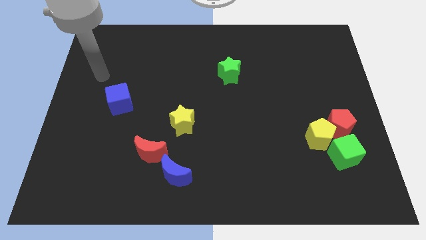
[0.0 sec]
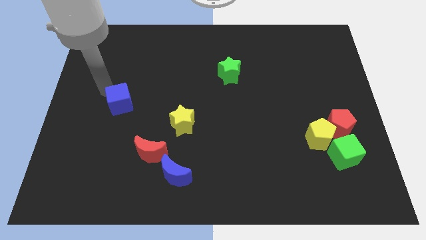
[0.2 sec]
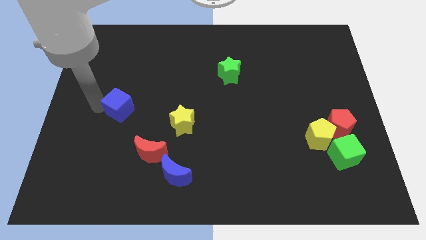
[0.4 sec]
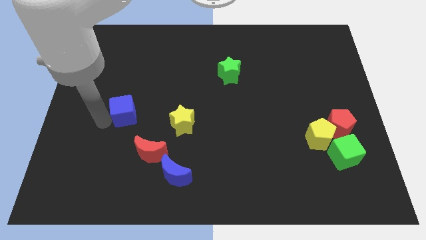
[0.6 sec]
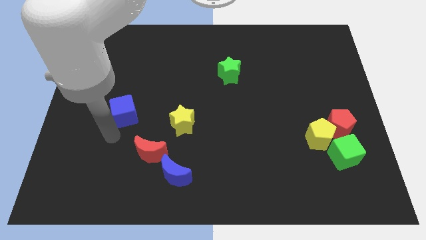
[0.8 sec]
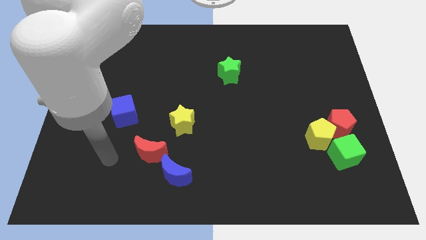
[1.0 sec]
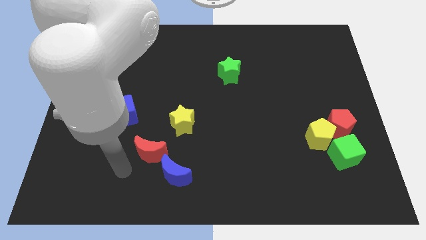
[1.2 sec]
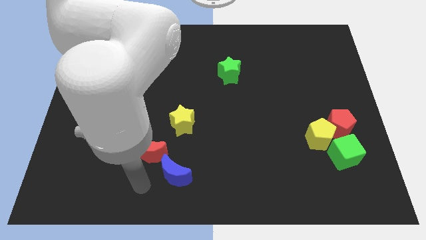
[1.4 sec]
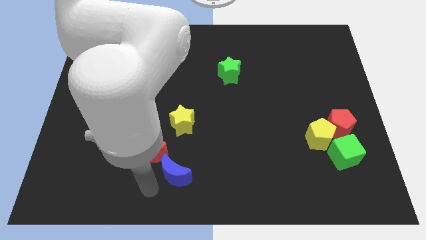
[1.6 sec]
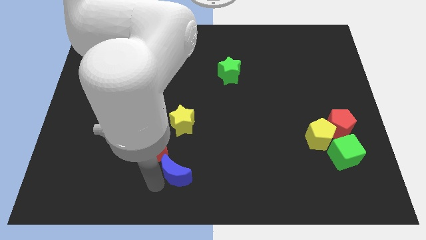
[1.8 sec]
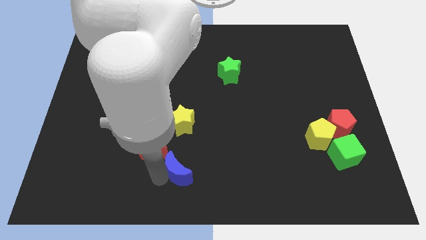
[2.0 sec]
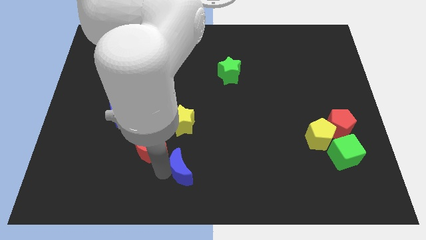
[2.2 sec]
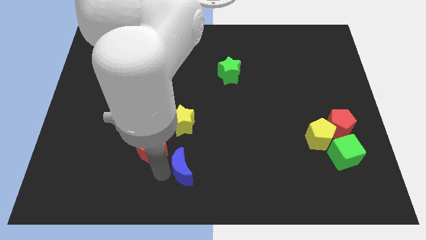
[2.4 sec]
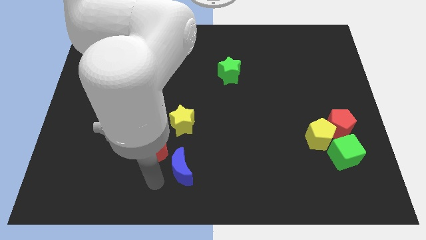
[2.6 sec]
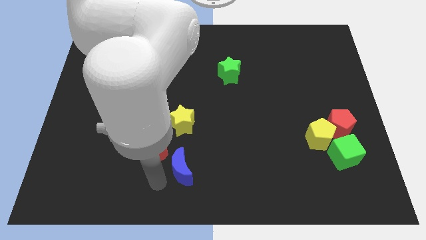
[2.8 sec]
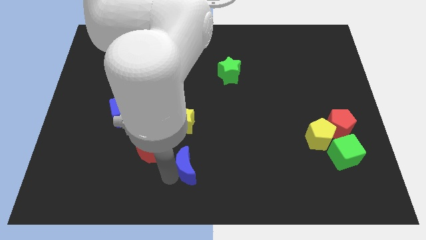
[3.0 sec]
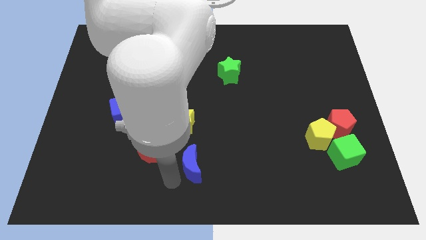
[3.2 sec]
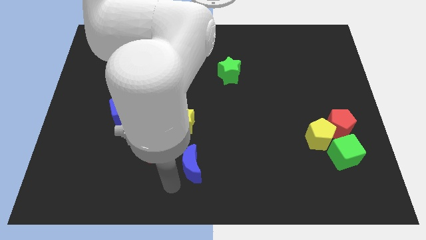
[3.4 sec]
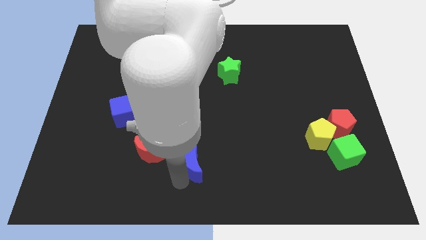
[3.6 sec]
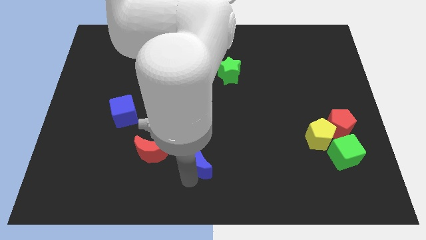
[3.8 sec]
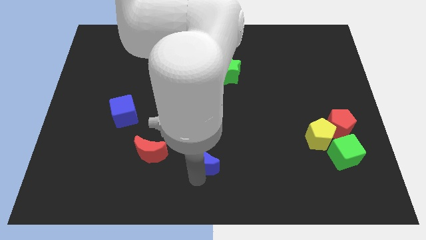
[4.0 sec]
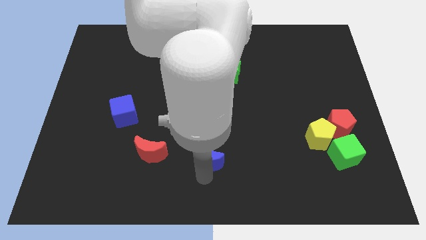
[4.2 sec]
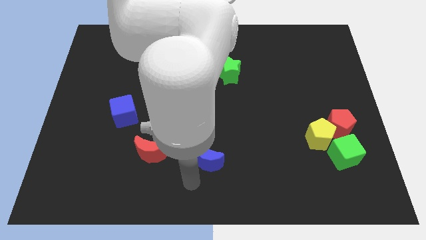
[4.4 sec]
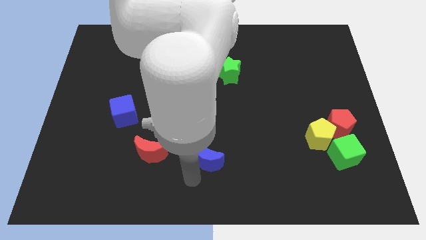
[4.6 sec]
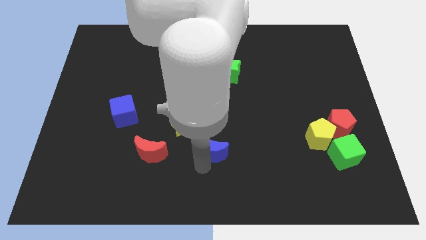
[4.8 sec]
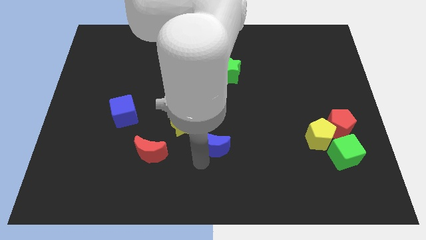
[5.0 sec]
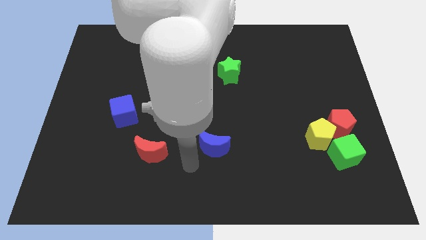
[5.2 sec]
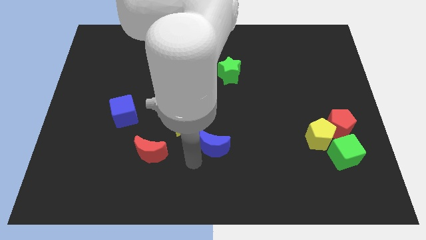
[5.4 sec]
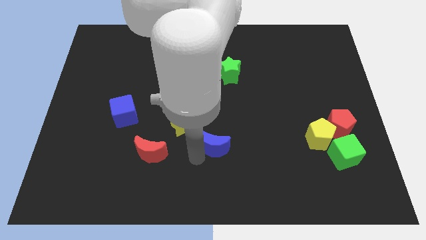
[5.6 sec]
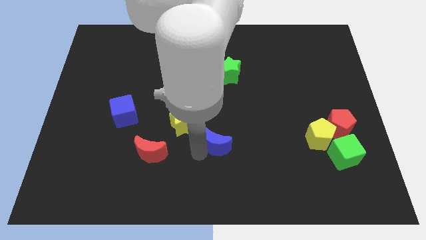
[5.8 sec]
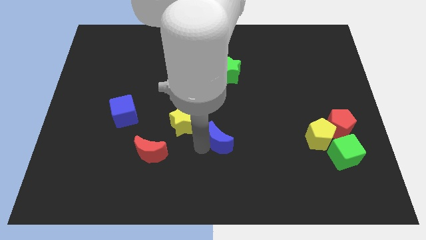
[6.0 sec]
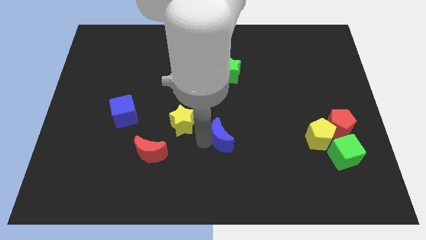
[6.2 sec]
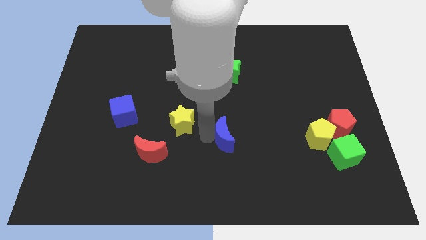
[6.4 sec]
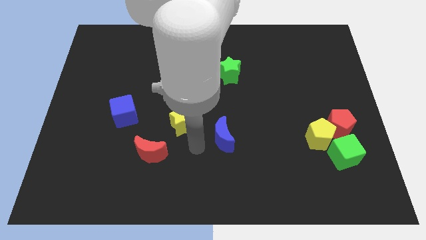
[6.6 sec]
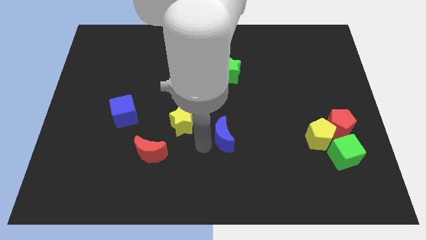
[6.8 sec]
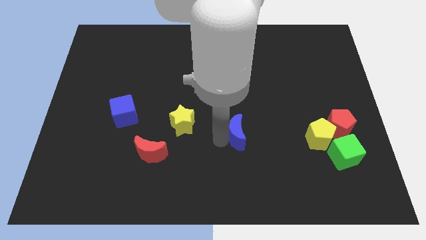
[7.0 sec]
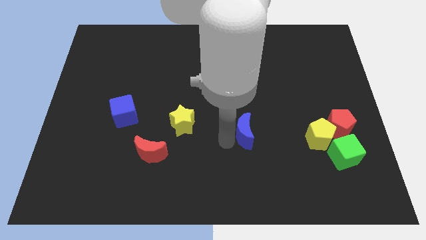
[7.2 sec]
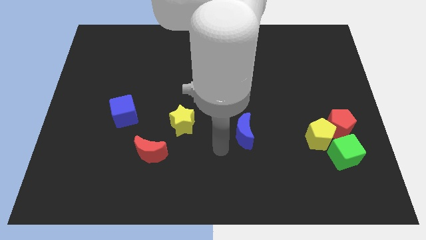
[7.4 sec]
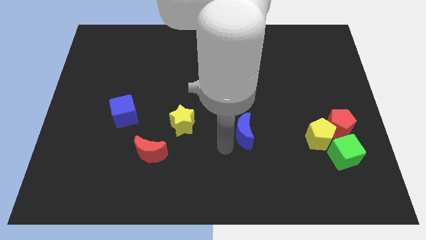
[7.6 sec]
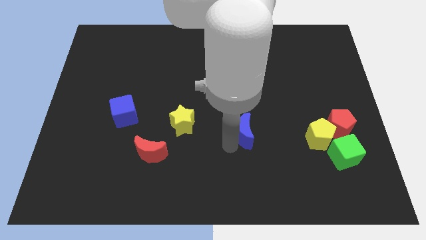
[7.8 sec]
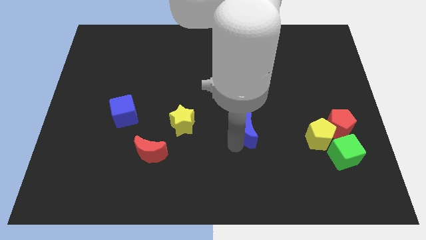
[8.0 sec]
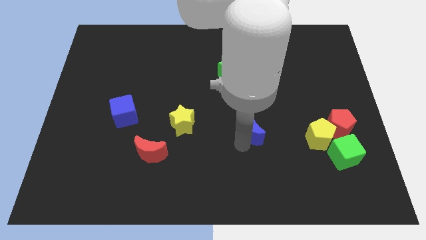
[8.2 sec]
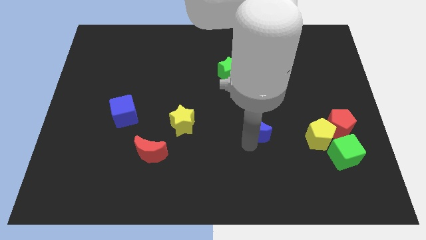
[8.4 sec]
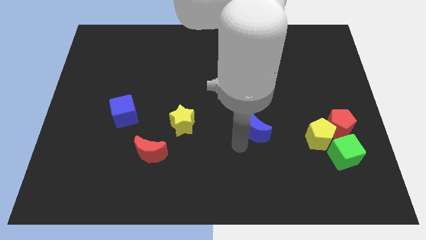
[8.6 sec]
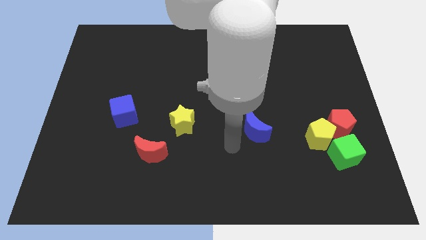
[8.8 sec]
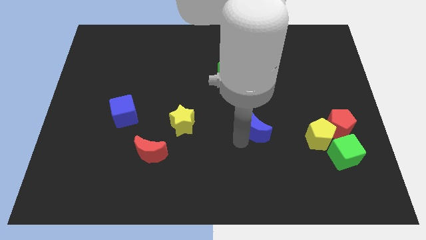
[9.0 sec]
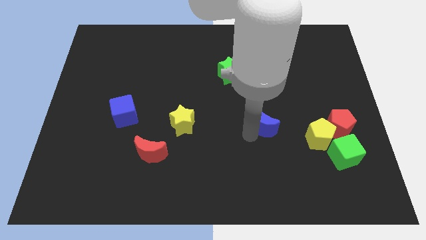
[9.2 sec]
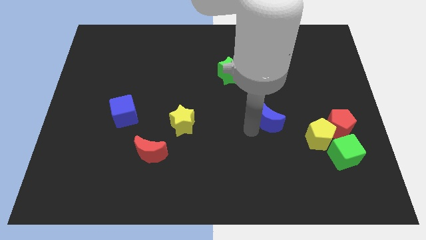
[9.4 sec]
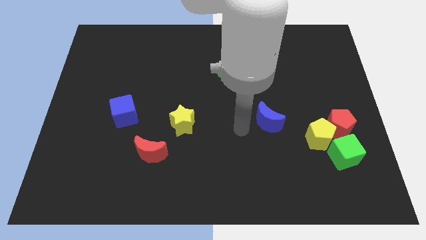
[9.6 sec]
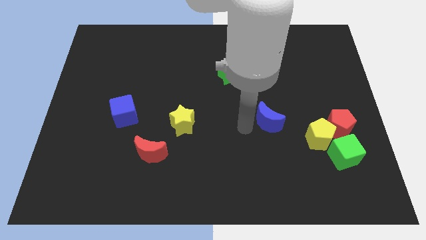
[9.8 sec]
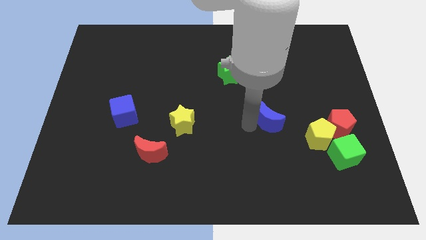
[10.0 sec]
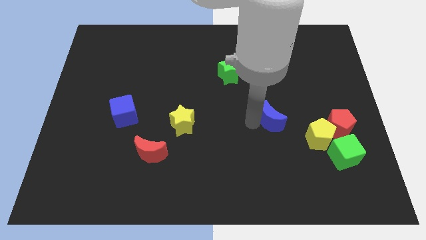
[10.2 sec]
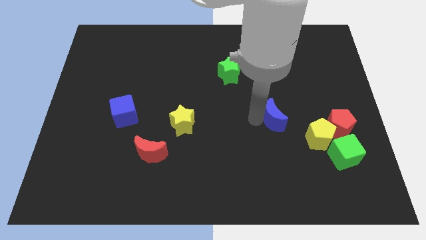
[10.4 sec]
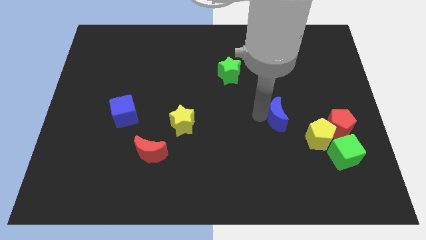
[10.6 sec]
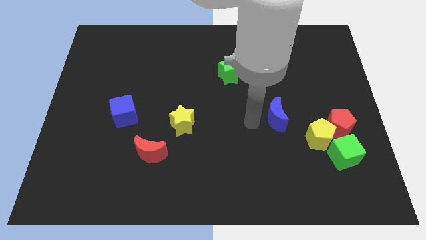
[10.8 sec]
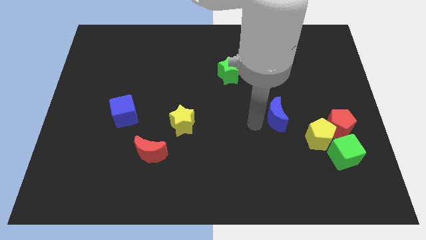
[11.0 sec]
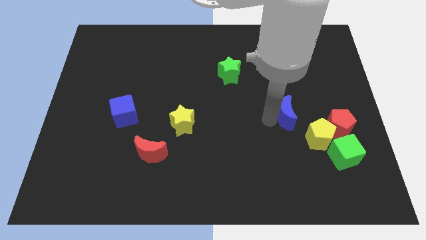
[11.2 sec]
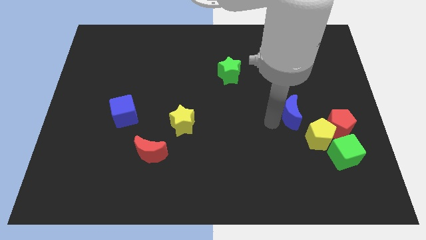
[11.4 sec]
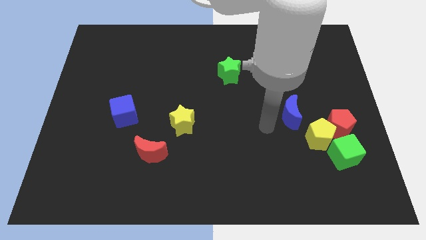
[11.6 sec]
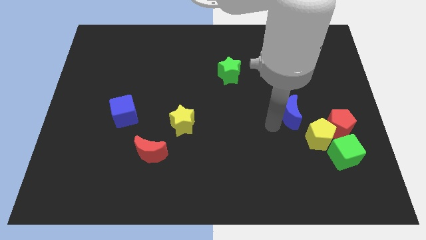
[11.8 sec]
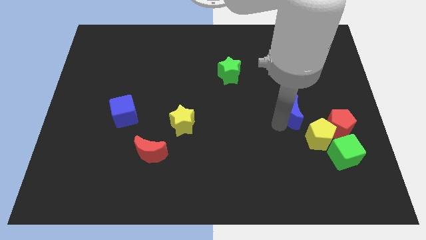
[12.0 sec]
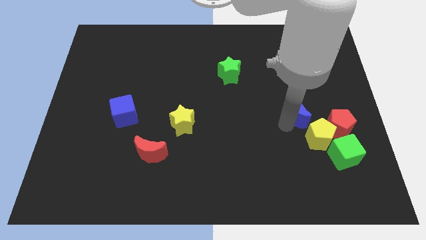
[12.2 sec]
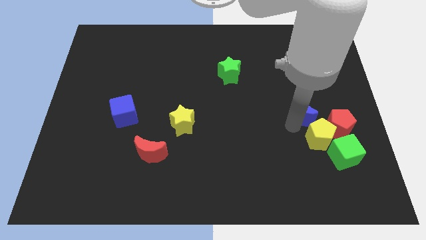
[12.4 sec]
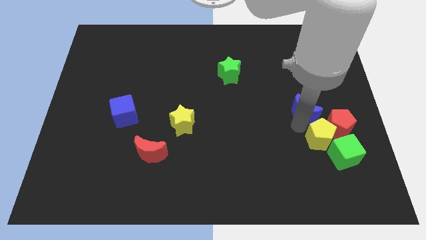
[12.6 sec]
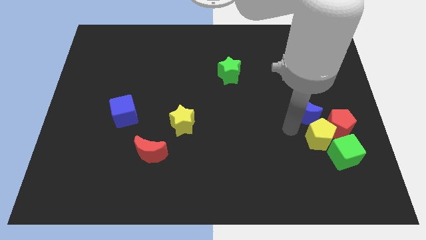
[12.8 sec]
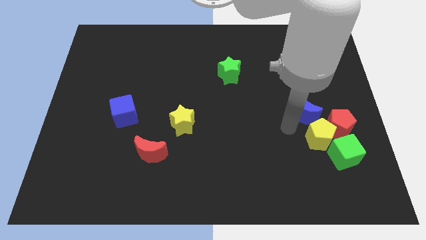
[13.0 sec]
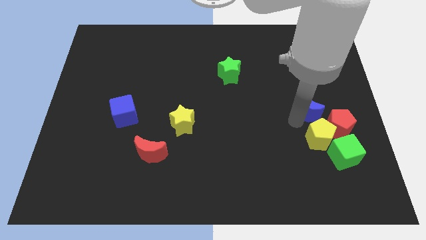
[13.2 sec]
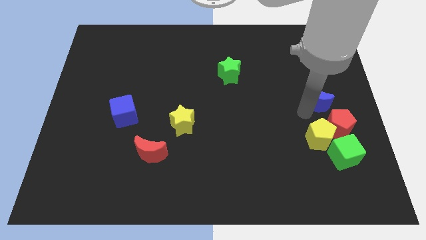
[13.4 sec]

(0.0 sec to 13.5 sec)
put the blue moon to the top of the red pentagon
